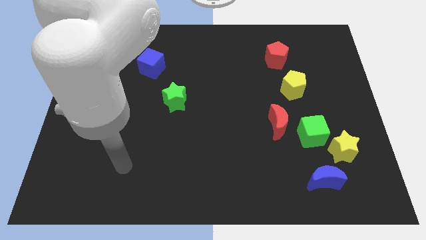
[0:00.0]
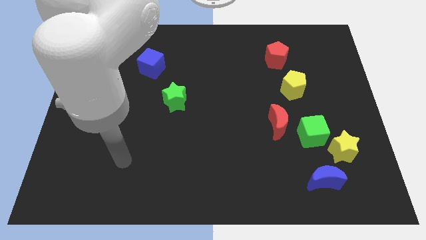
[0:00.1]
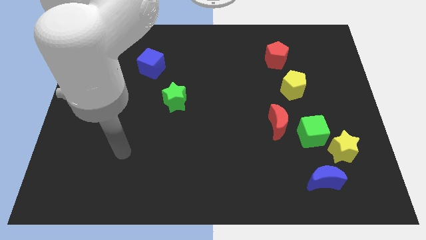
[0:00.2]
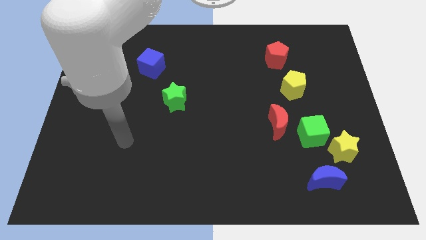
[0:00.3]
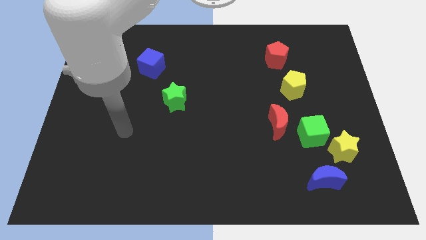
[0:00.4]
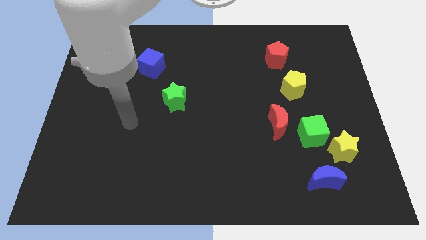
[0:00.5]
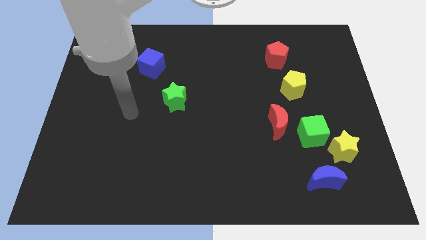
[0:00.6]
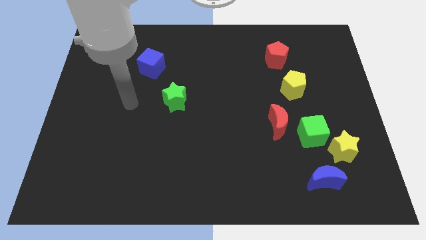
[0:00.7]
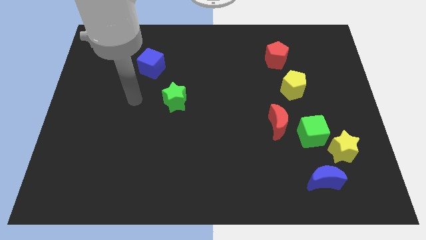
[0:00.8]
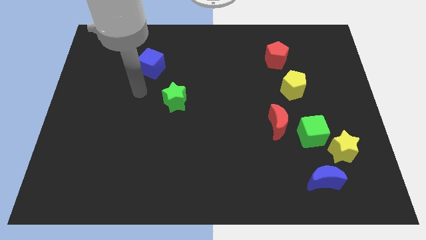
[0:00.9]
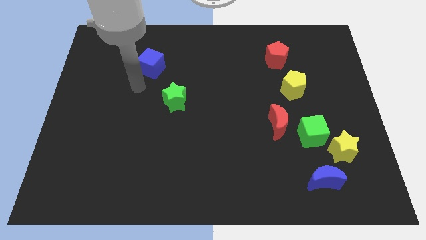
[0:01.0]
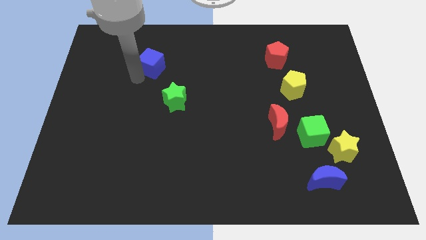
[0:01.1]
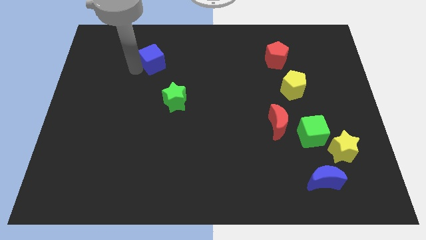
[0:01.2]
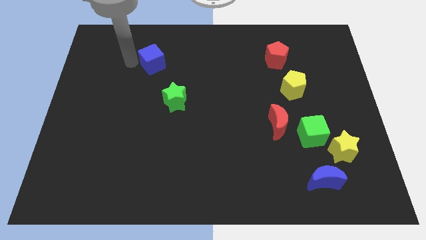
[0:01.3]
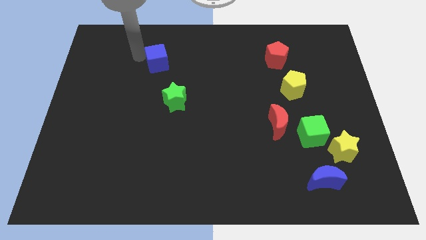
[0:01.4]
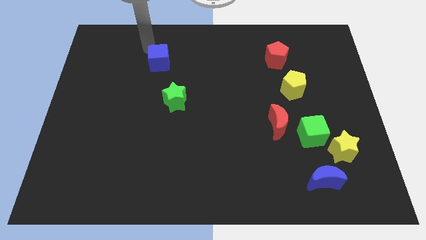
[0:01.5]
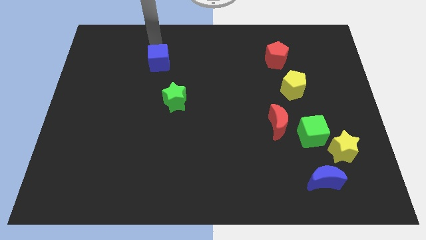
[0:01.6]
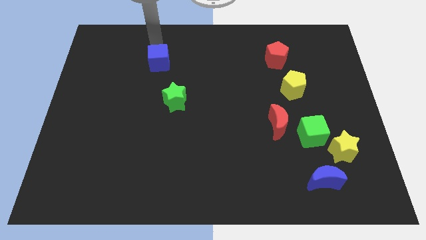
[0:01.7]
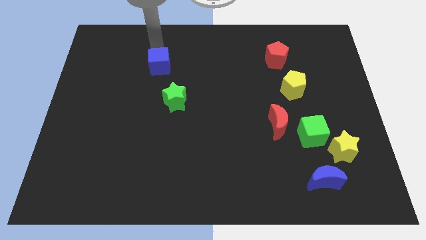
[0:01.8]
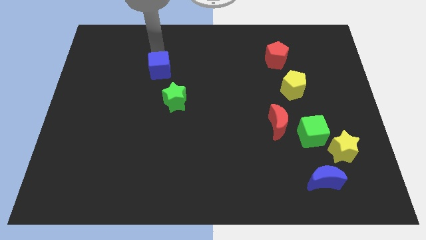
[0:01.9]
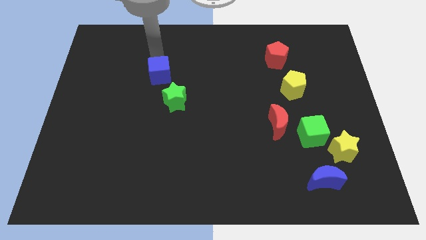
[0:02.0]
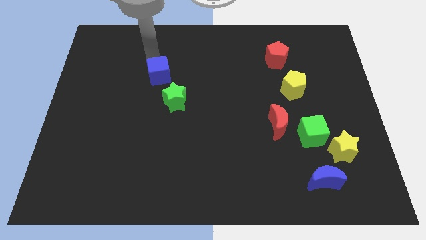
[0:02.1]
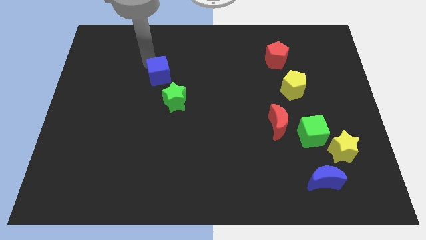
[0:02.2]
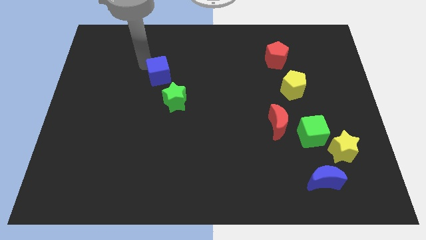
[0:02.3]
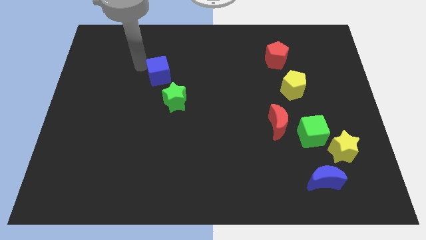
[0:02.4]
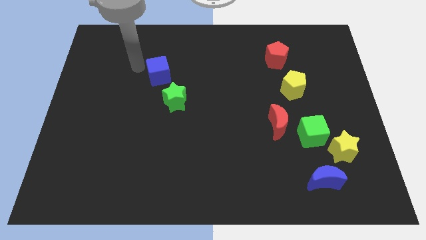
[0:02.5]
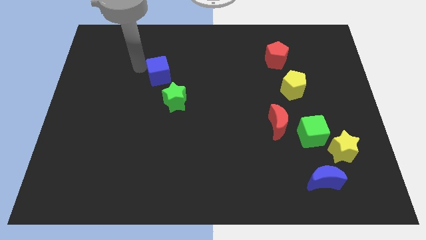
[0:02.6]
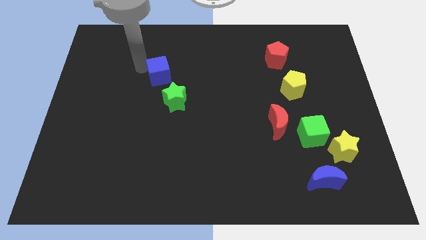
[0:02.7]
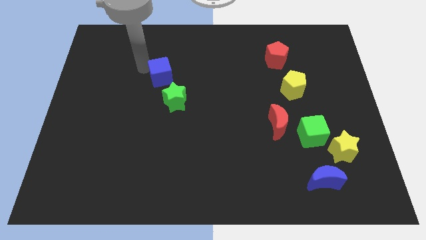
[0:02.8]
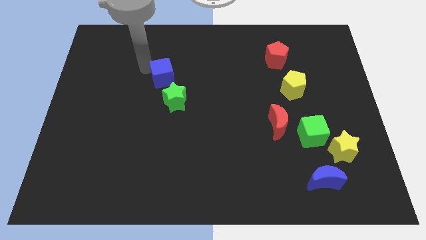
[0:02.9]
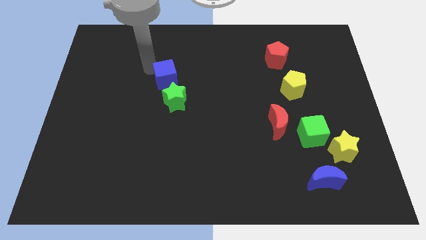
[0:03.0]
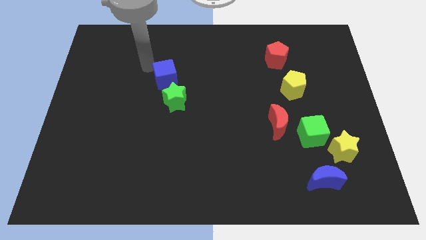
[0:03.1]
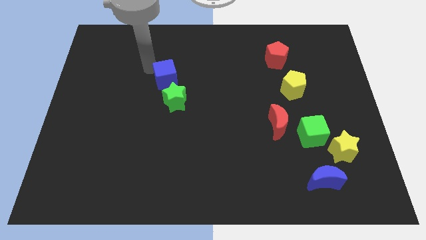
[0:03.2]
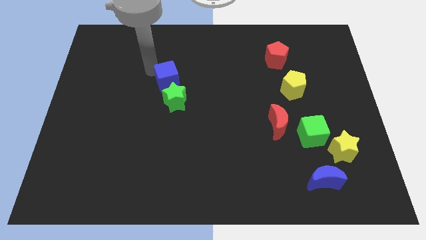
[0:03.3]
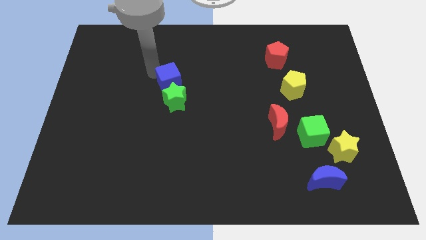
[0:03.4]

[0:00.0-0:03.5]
push the blue cube downwards and then to the right a little

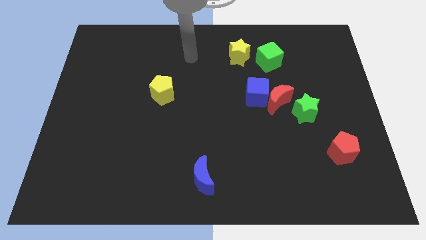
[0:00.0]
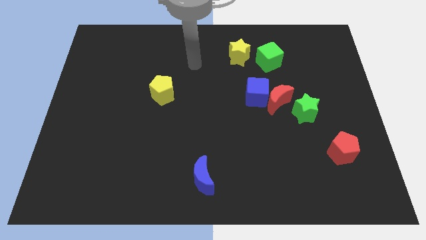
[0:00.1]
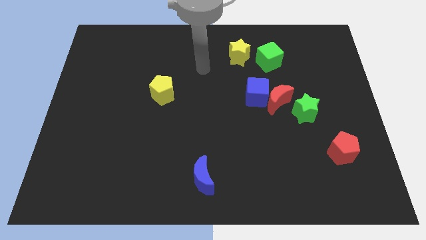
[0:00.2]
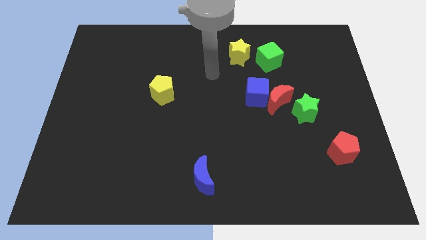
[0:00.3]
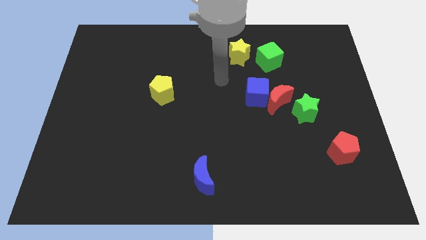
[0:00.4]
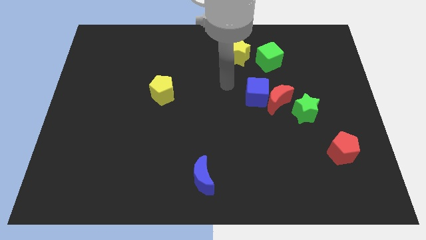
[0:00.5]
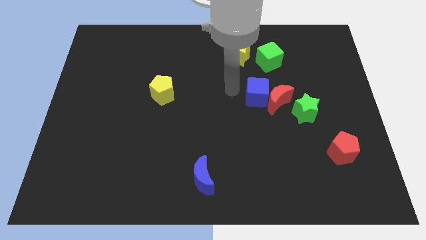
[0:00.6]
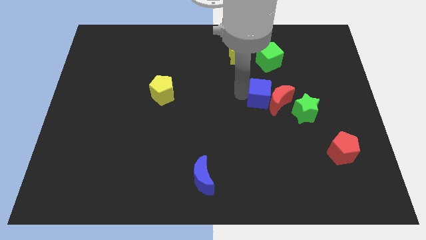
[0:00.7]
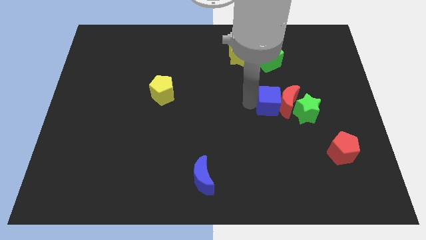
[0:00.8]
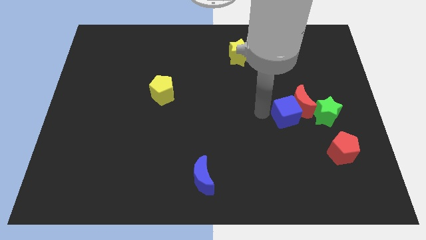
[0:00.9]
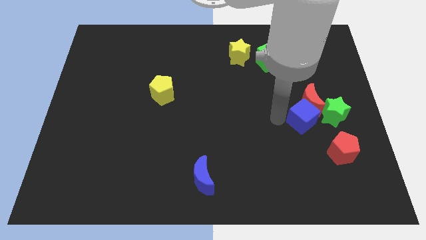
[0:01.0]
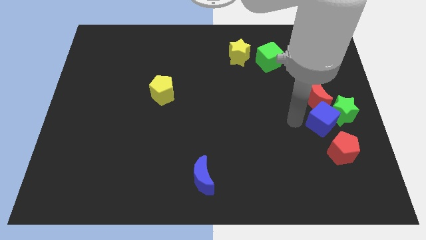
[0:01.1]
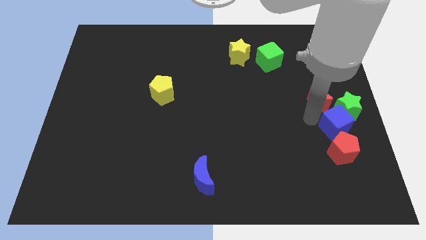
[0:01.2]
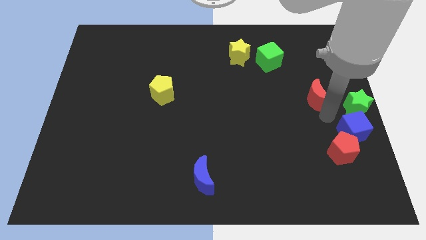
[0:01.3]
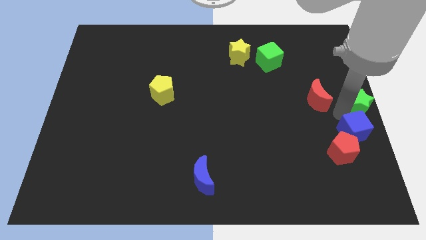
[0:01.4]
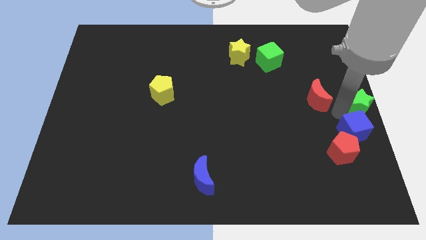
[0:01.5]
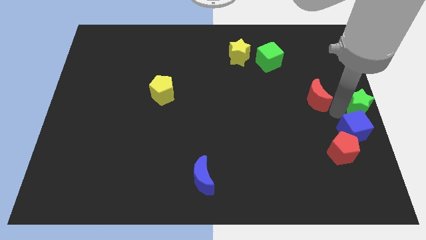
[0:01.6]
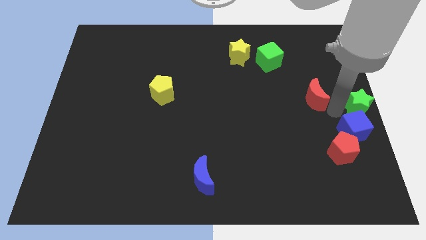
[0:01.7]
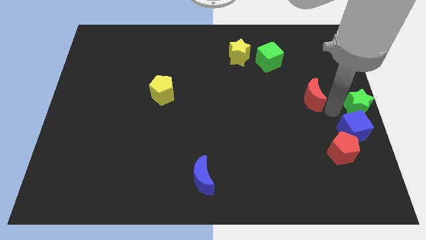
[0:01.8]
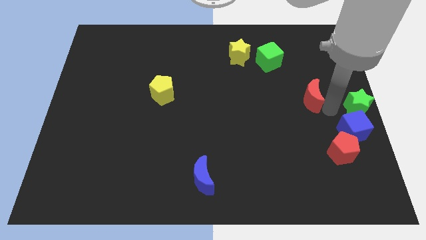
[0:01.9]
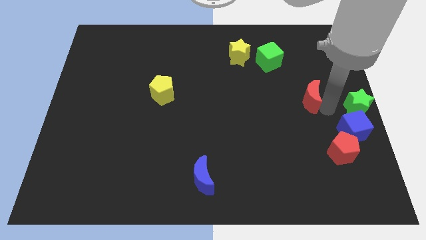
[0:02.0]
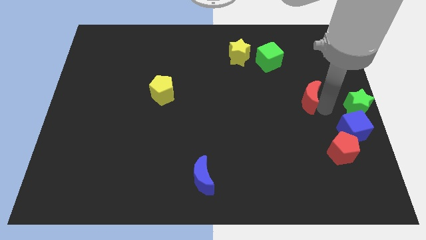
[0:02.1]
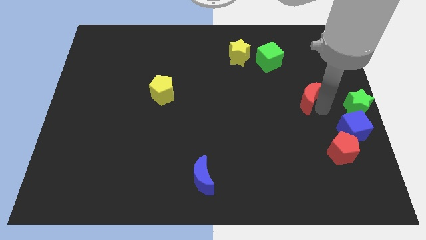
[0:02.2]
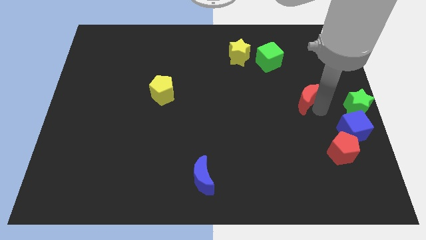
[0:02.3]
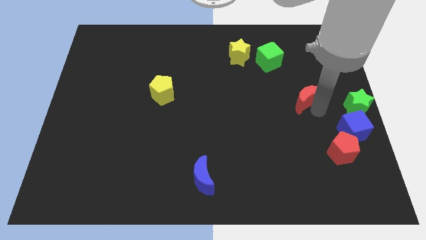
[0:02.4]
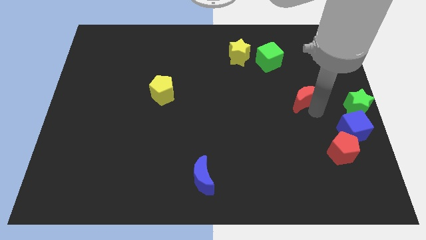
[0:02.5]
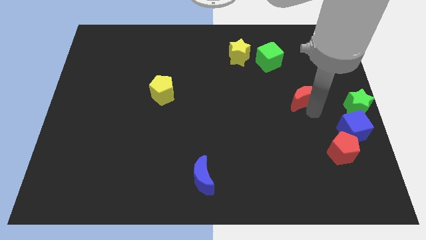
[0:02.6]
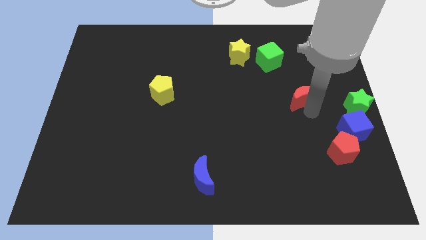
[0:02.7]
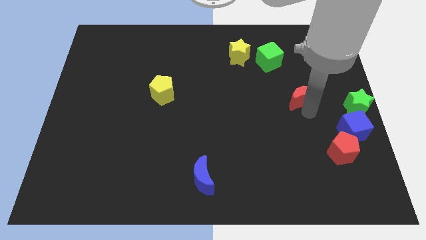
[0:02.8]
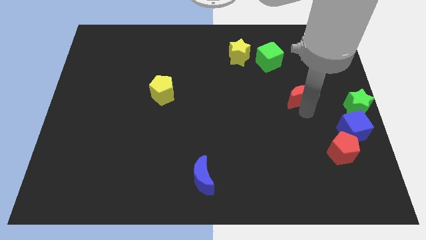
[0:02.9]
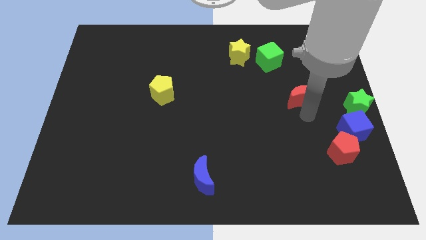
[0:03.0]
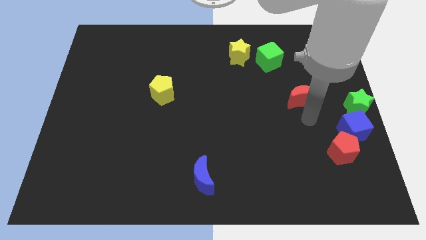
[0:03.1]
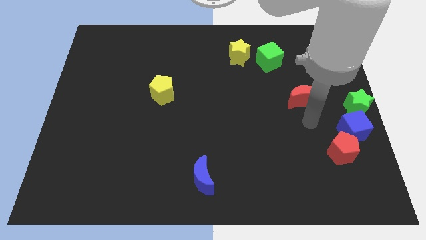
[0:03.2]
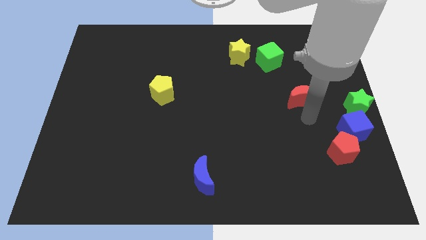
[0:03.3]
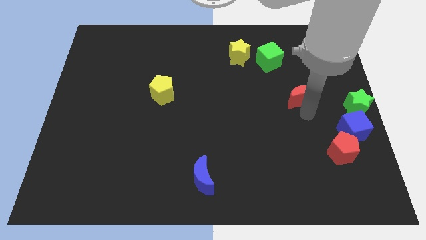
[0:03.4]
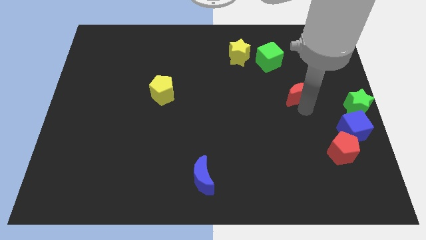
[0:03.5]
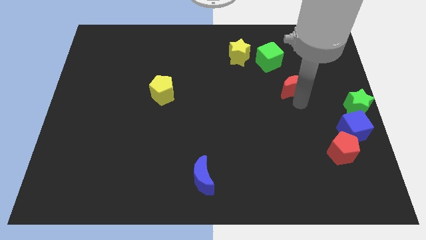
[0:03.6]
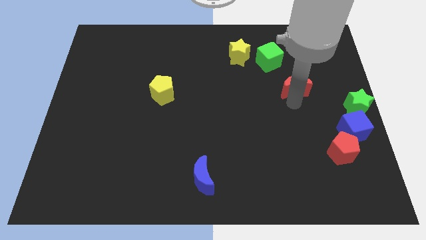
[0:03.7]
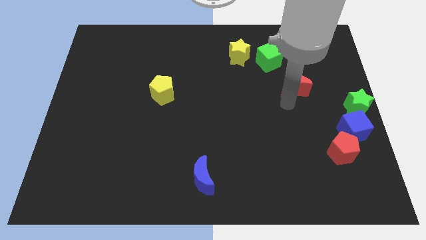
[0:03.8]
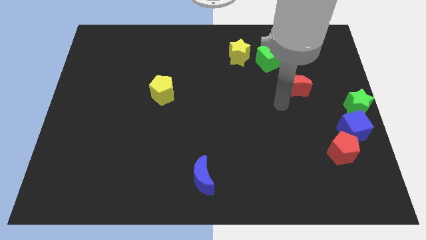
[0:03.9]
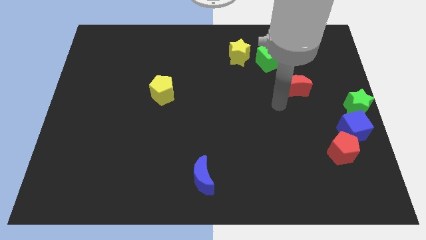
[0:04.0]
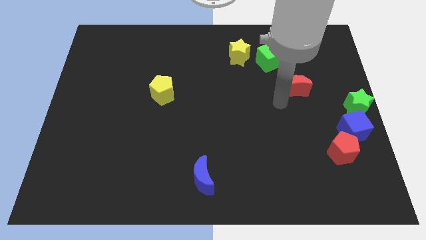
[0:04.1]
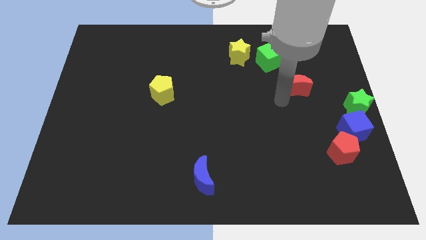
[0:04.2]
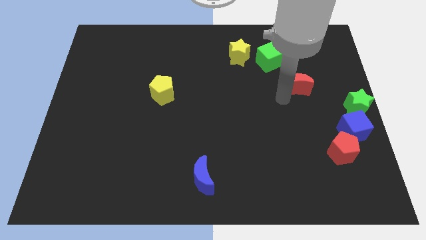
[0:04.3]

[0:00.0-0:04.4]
slide the red moon a bit upwards and to the right

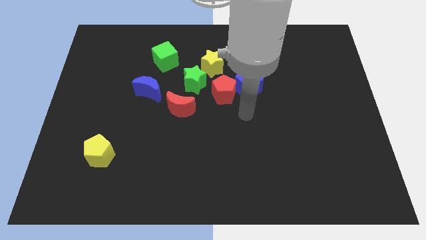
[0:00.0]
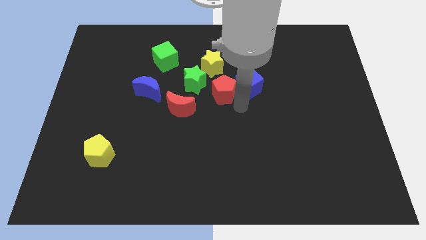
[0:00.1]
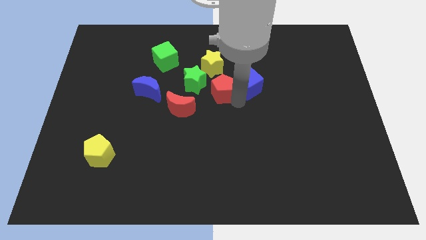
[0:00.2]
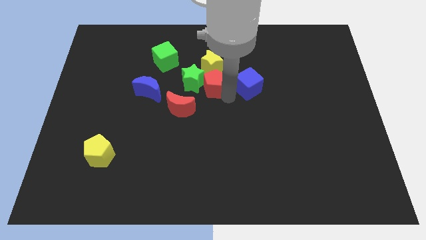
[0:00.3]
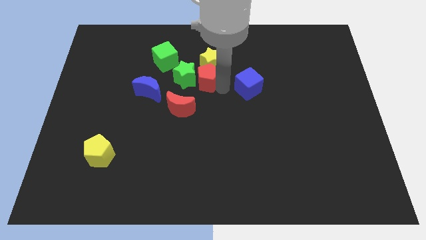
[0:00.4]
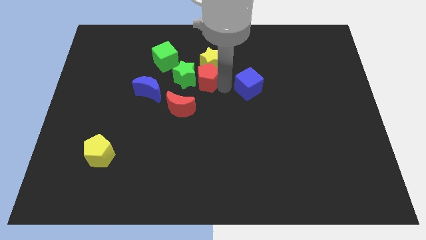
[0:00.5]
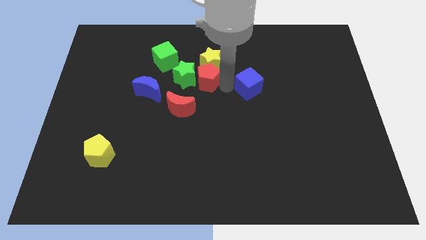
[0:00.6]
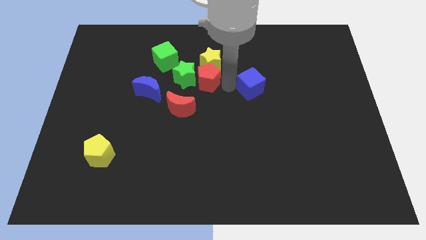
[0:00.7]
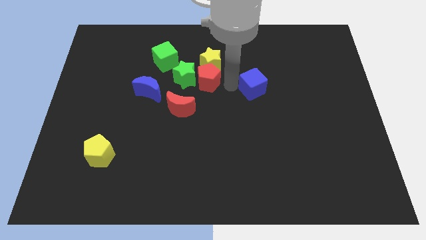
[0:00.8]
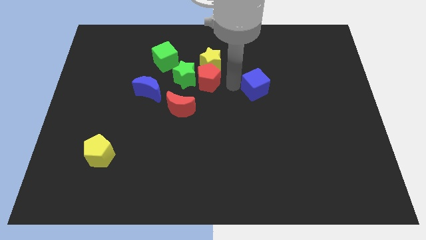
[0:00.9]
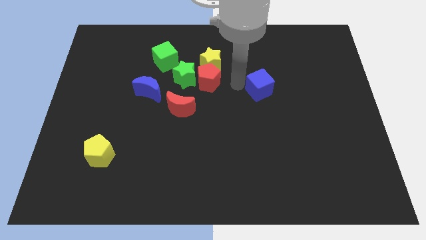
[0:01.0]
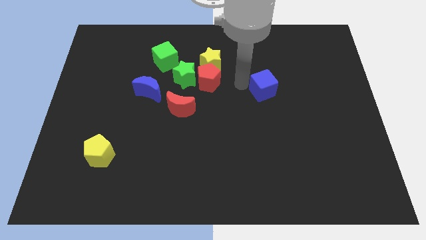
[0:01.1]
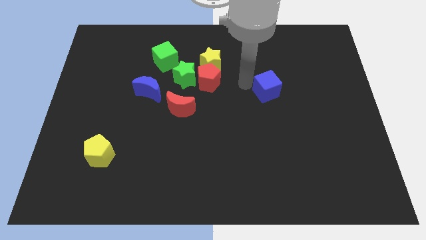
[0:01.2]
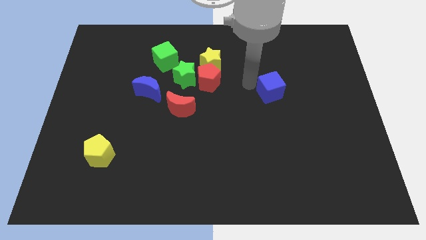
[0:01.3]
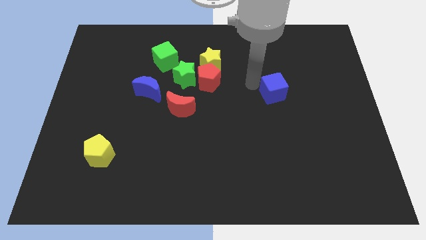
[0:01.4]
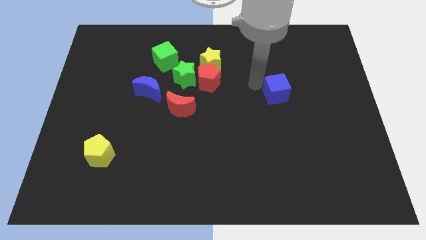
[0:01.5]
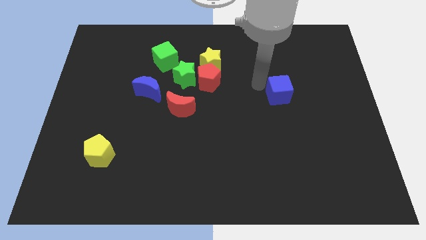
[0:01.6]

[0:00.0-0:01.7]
slide the blue cube to the right a little
